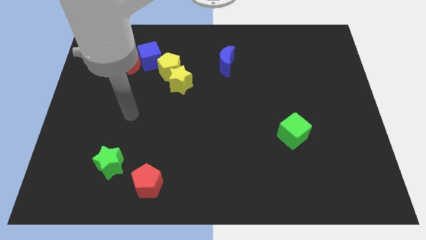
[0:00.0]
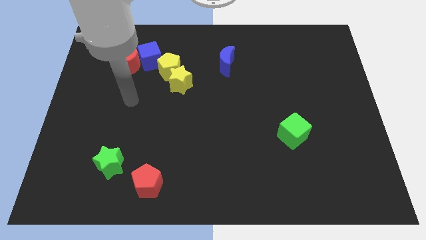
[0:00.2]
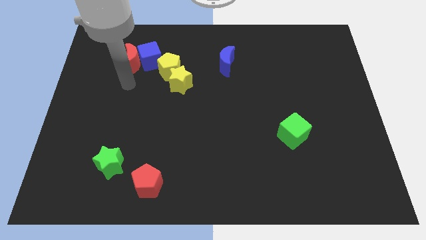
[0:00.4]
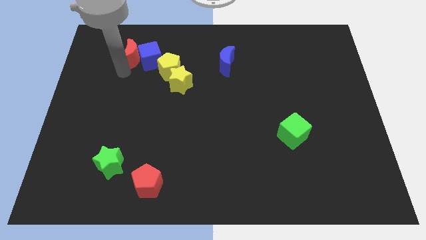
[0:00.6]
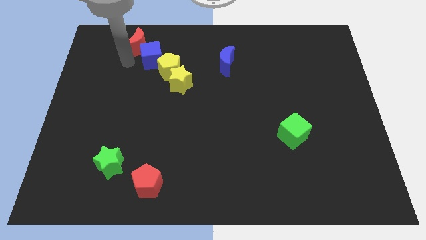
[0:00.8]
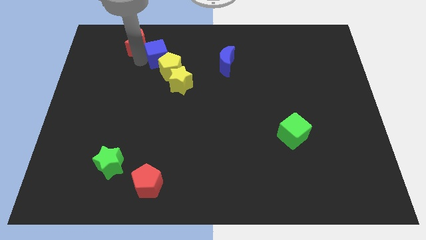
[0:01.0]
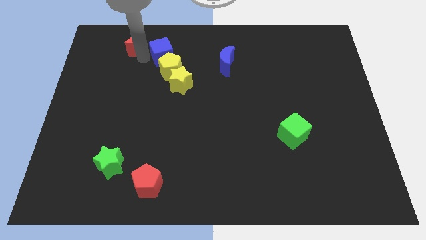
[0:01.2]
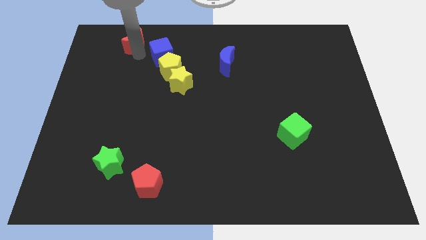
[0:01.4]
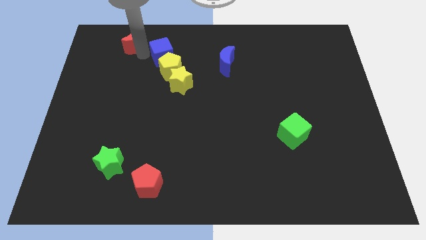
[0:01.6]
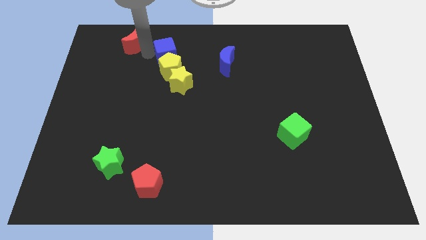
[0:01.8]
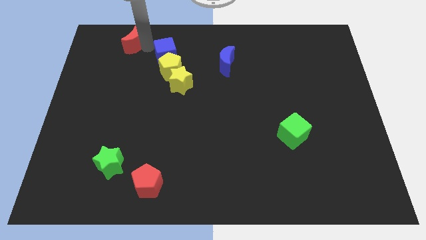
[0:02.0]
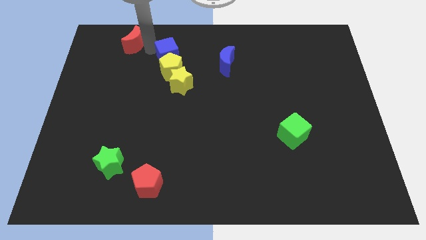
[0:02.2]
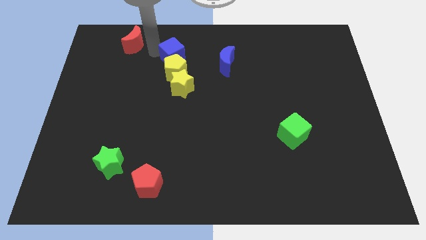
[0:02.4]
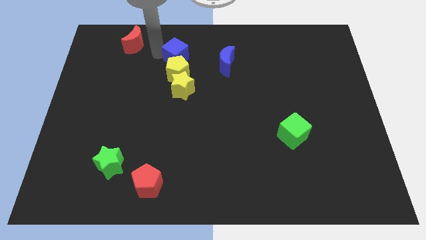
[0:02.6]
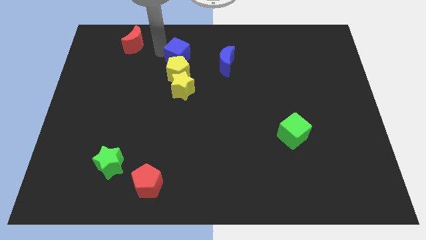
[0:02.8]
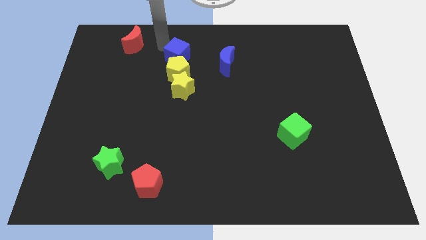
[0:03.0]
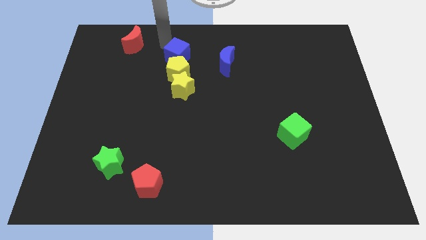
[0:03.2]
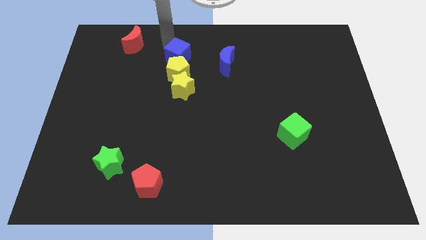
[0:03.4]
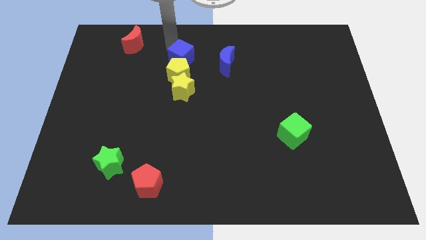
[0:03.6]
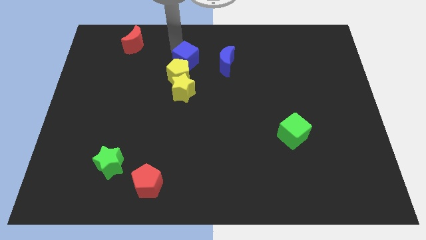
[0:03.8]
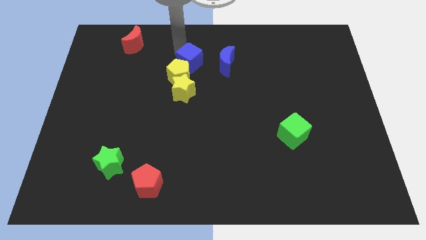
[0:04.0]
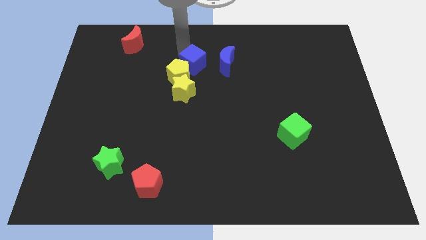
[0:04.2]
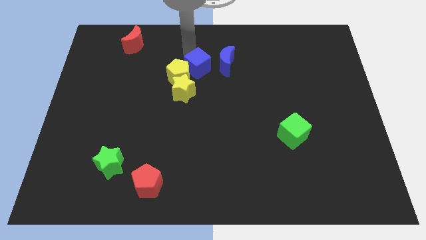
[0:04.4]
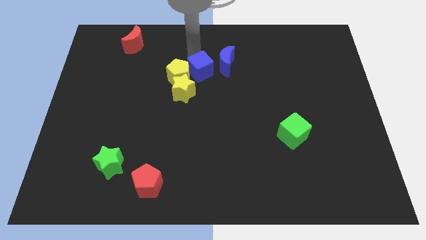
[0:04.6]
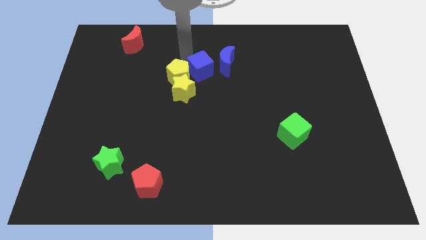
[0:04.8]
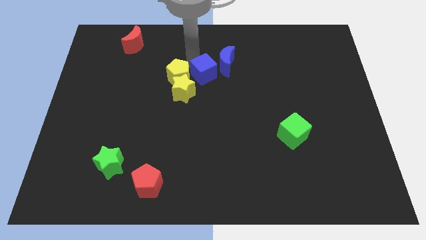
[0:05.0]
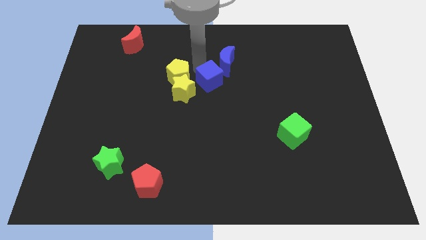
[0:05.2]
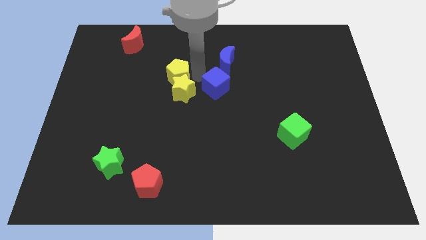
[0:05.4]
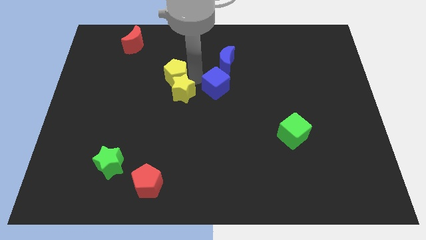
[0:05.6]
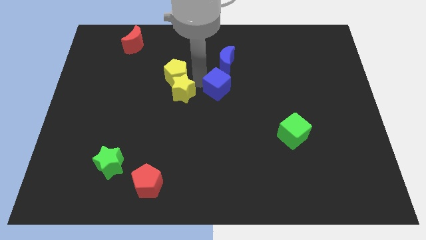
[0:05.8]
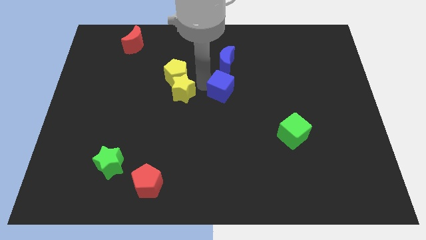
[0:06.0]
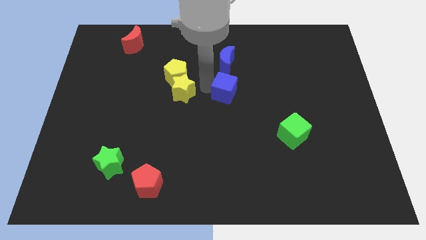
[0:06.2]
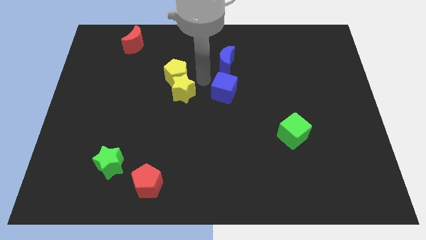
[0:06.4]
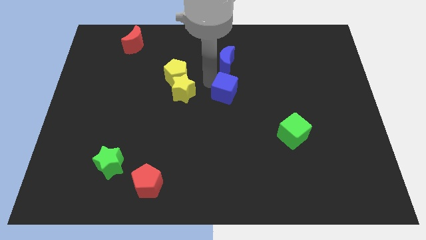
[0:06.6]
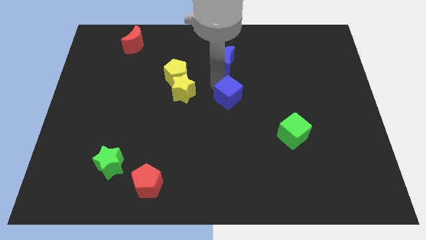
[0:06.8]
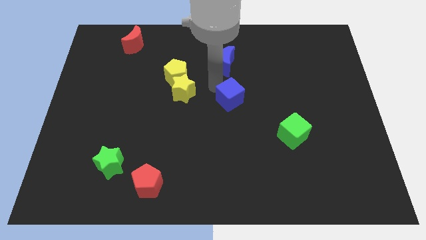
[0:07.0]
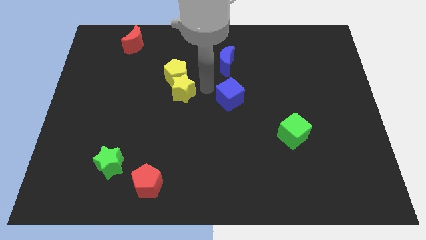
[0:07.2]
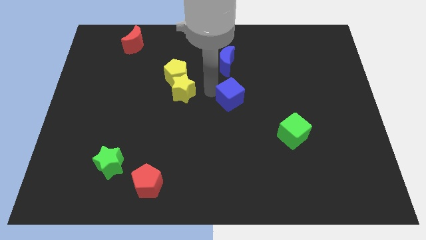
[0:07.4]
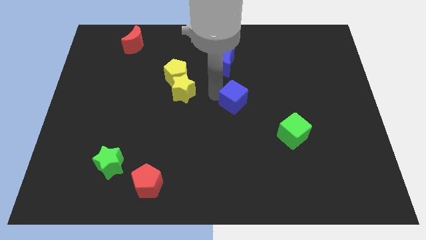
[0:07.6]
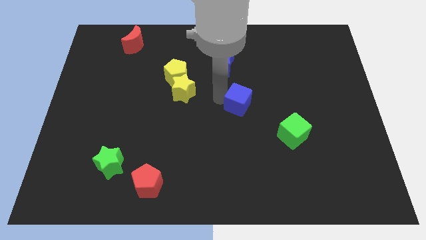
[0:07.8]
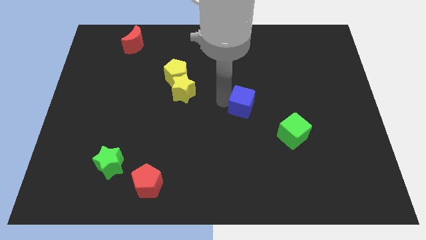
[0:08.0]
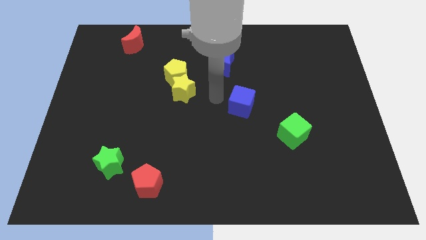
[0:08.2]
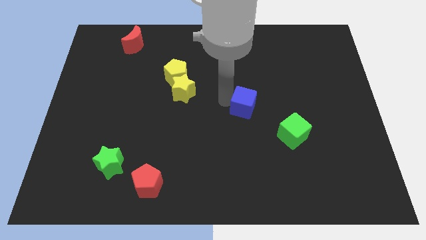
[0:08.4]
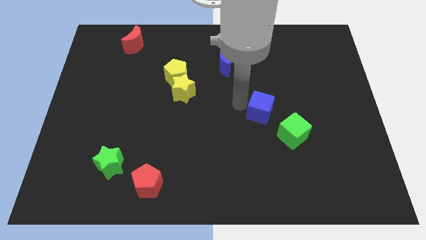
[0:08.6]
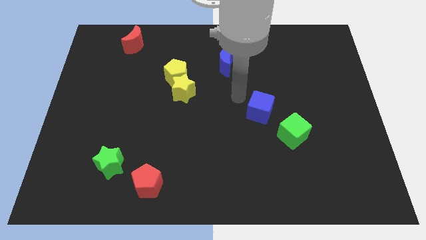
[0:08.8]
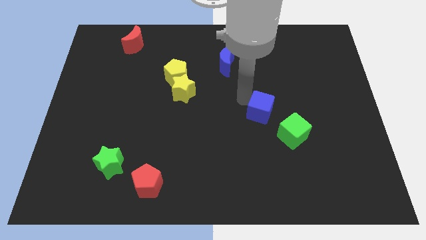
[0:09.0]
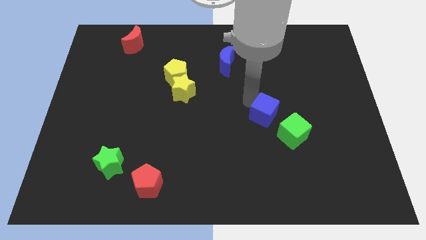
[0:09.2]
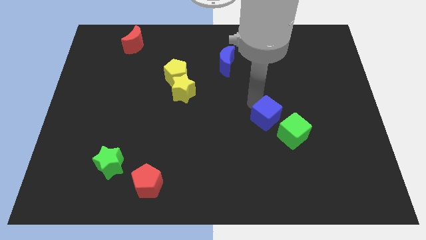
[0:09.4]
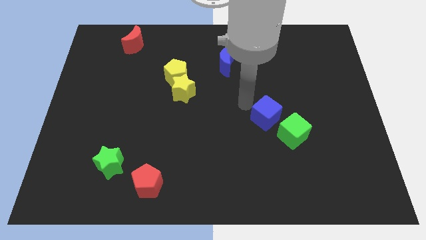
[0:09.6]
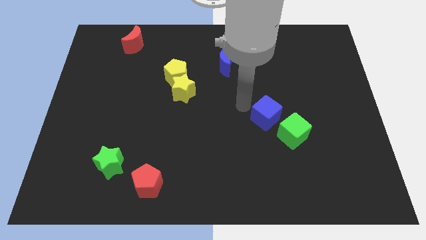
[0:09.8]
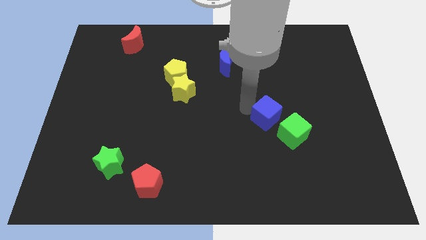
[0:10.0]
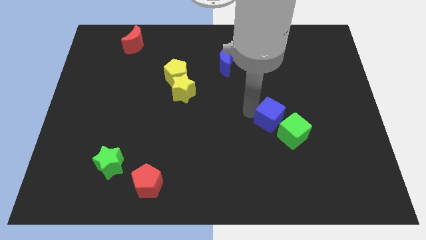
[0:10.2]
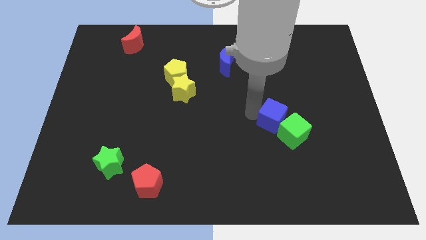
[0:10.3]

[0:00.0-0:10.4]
put the blue cube to the green cube

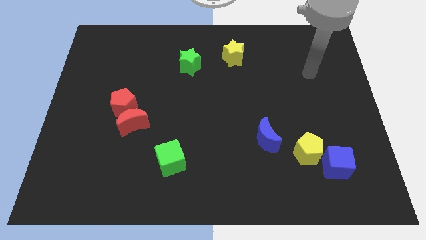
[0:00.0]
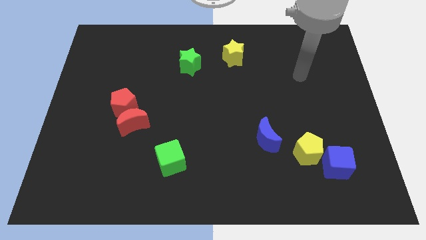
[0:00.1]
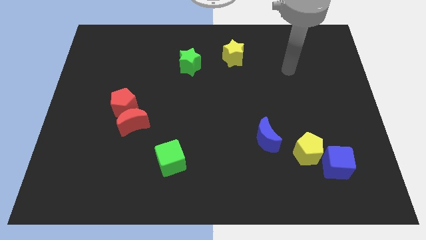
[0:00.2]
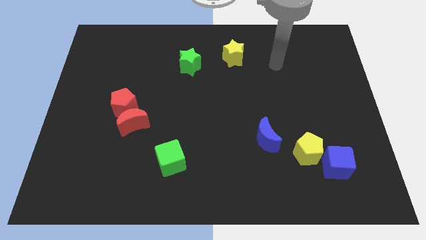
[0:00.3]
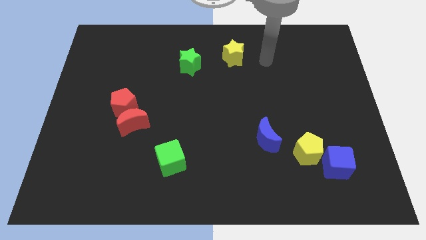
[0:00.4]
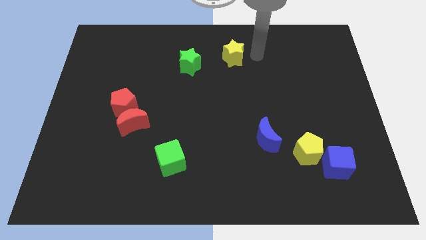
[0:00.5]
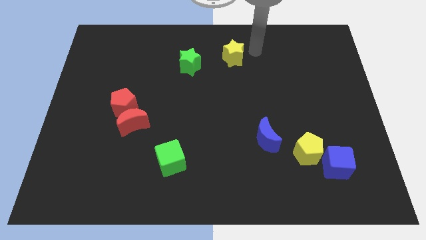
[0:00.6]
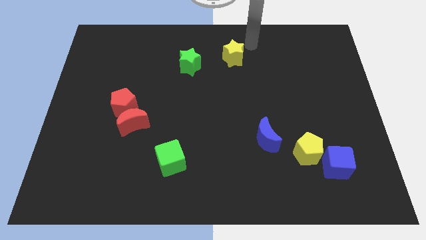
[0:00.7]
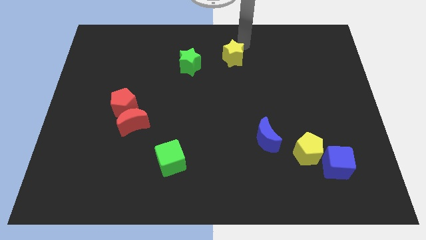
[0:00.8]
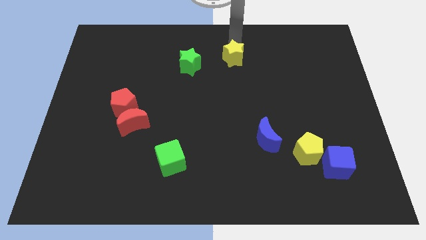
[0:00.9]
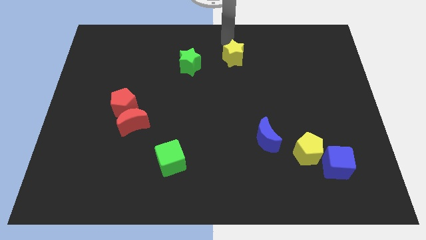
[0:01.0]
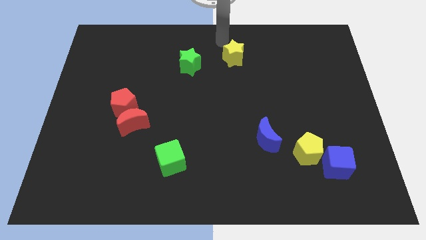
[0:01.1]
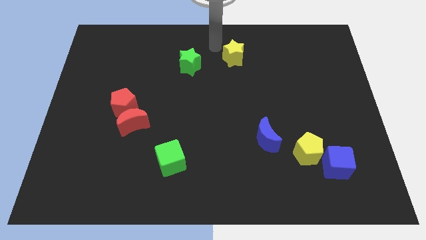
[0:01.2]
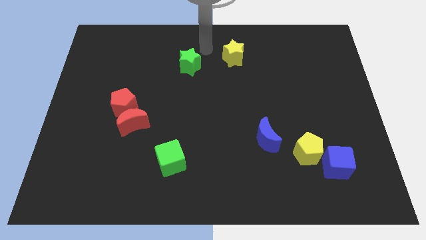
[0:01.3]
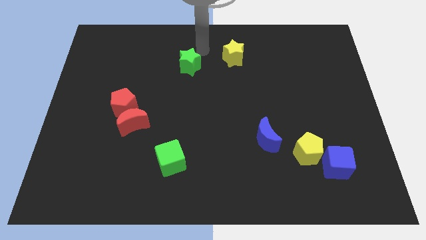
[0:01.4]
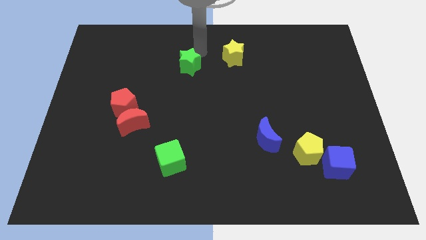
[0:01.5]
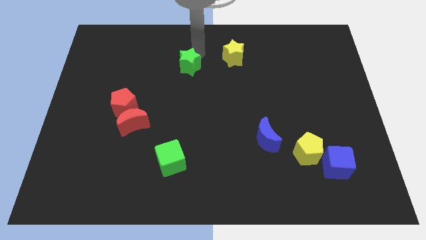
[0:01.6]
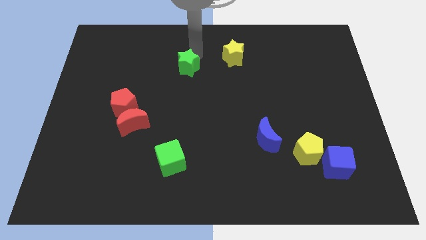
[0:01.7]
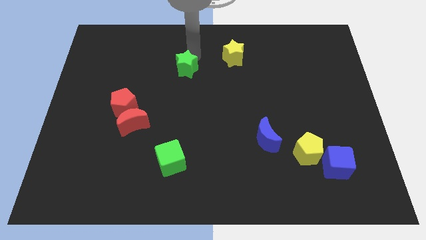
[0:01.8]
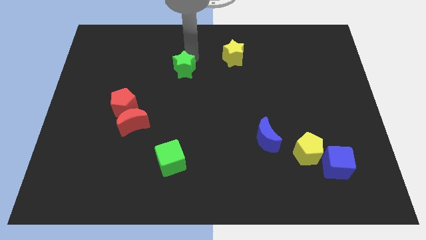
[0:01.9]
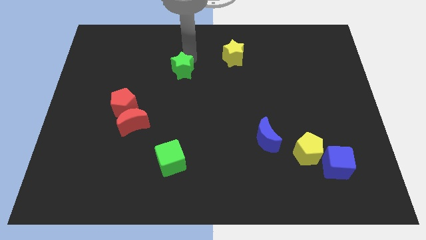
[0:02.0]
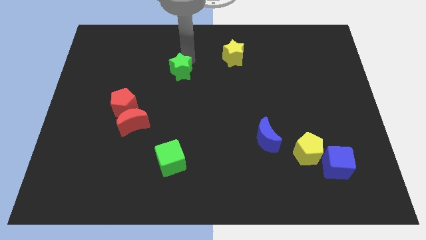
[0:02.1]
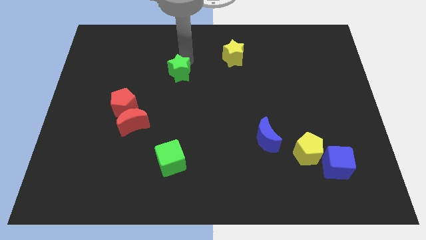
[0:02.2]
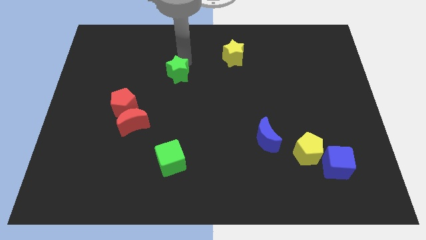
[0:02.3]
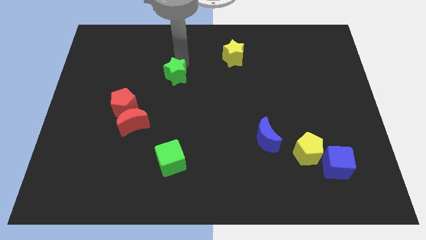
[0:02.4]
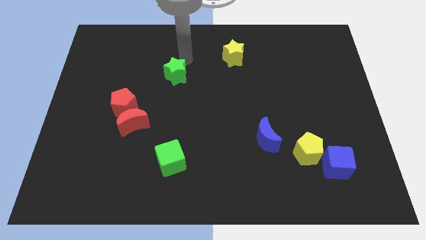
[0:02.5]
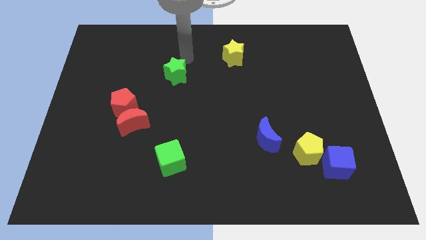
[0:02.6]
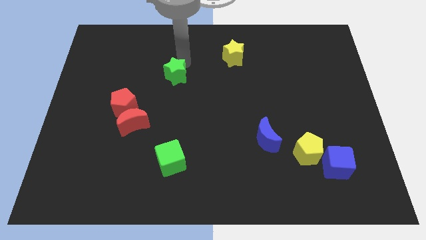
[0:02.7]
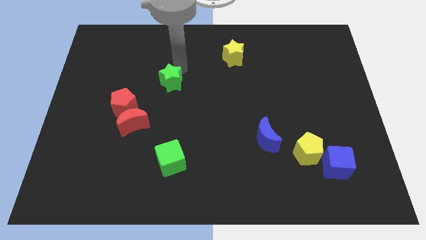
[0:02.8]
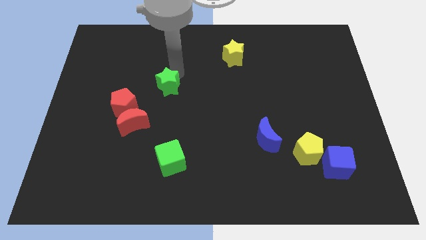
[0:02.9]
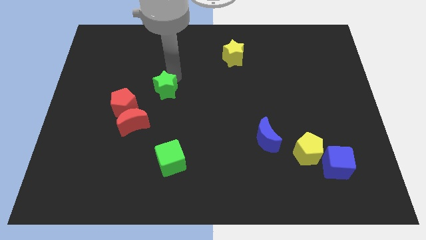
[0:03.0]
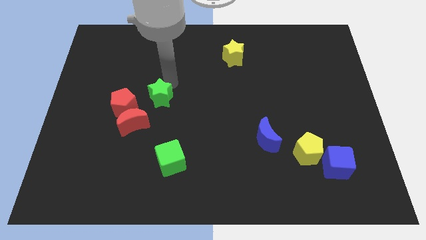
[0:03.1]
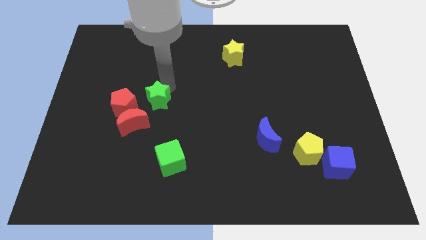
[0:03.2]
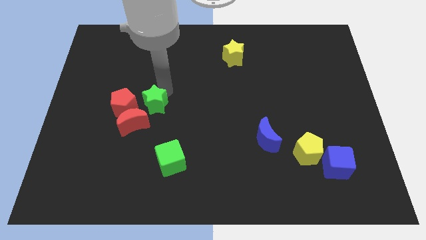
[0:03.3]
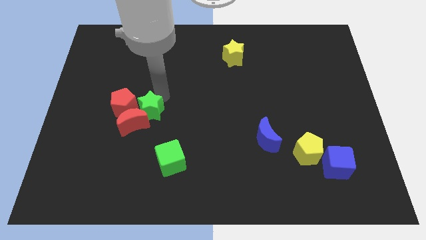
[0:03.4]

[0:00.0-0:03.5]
move the green star close to the red moon
